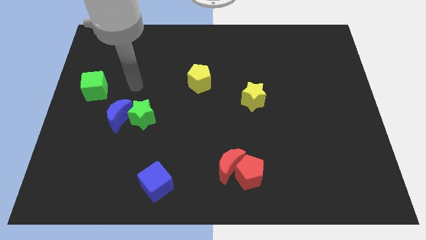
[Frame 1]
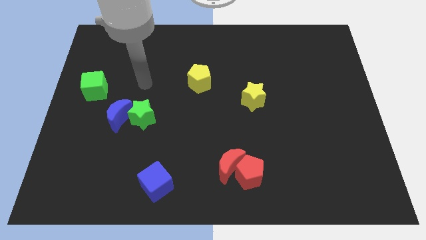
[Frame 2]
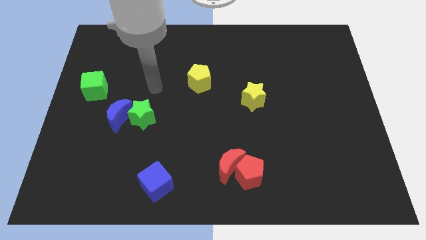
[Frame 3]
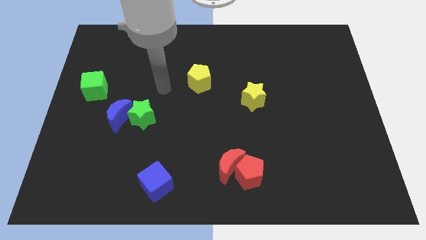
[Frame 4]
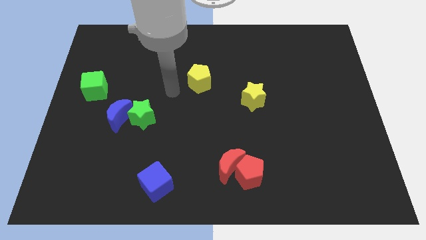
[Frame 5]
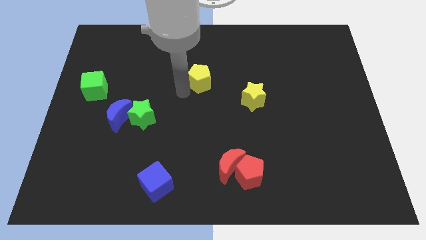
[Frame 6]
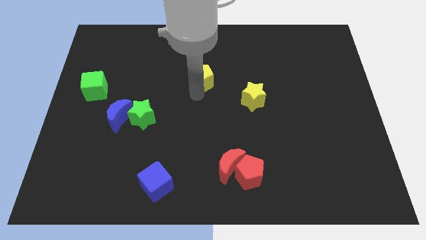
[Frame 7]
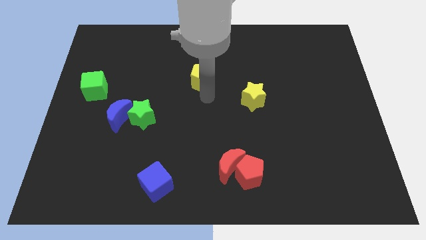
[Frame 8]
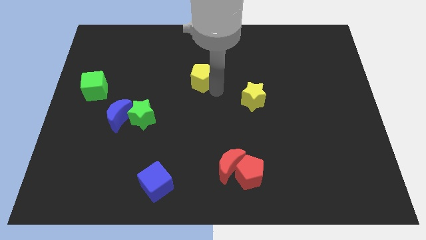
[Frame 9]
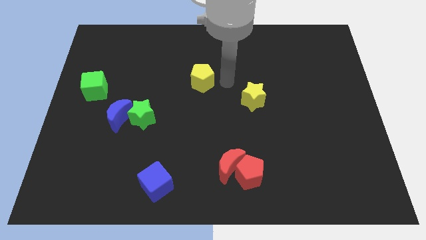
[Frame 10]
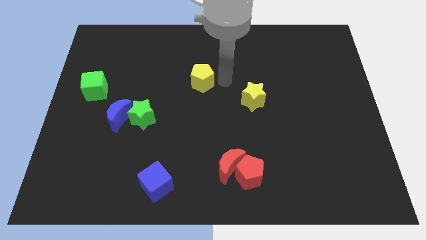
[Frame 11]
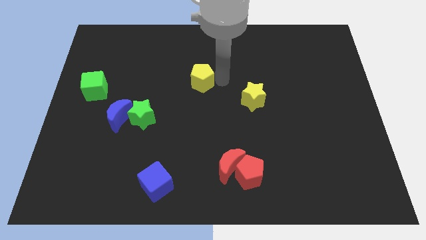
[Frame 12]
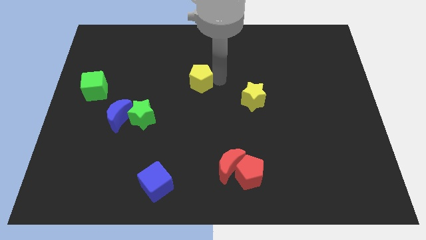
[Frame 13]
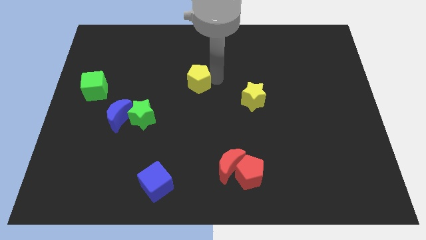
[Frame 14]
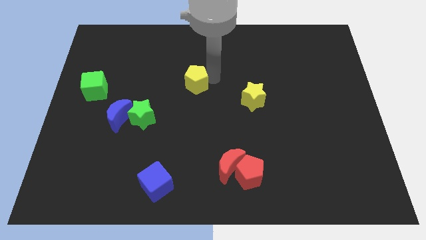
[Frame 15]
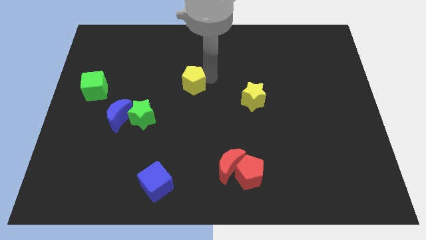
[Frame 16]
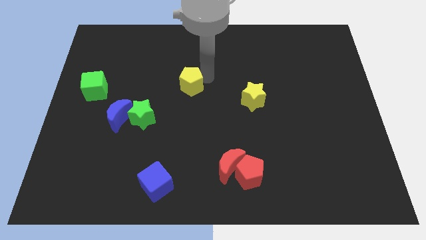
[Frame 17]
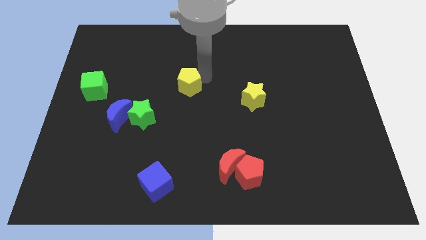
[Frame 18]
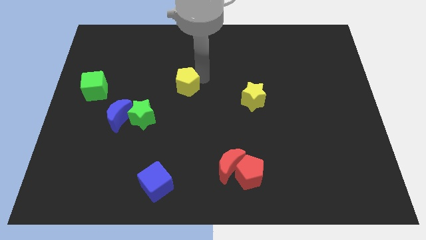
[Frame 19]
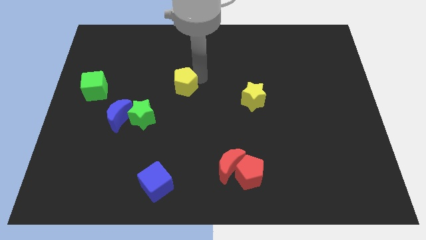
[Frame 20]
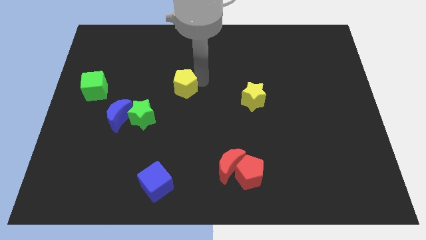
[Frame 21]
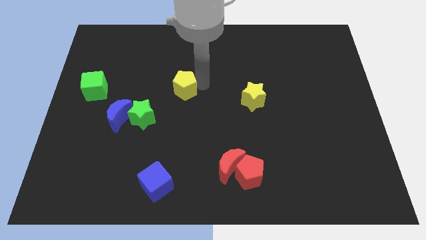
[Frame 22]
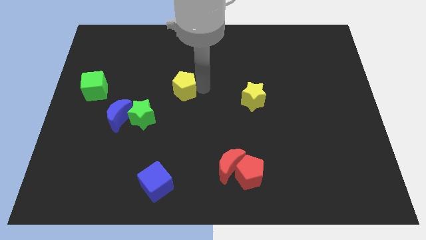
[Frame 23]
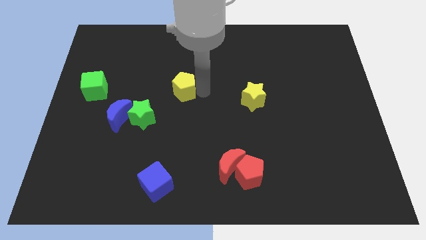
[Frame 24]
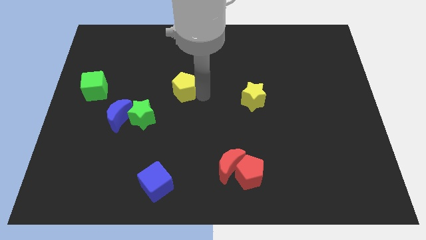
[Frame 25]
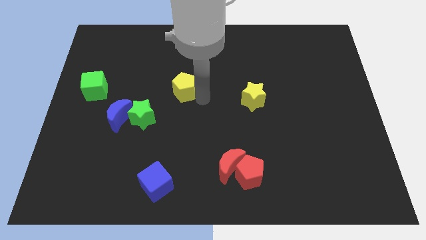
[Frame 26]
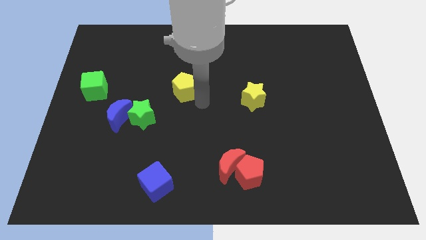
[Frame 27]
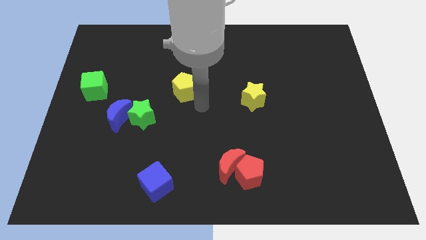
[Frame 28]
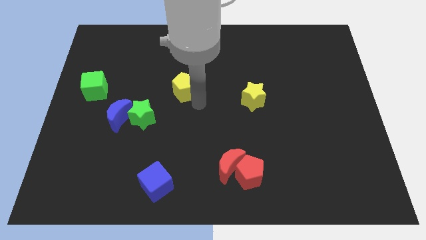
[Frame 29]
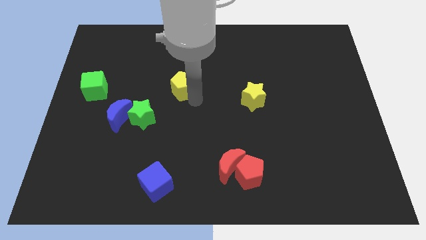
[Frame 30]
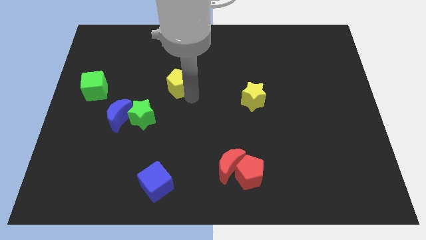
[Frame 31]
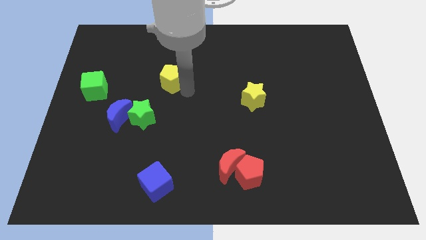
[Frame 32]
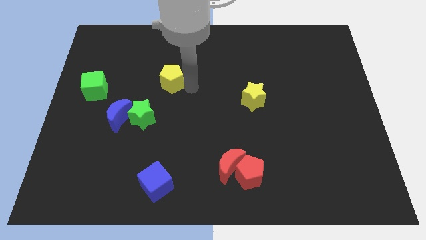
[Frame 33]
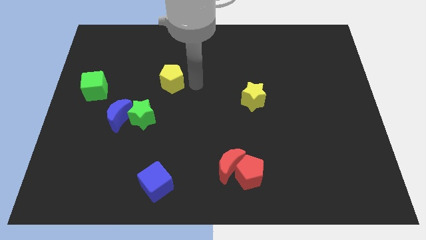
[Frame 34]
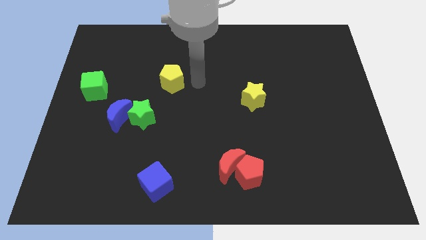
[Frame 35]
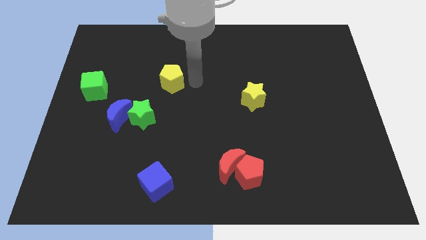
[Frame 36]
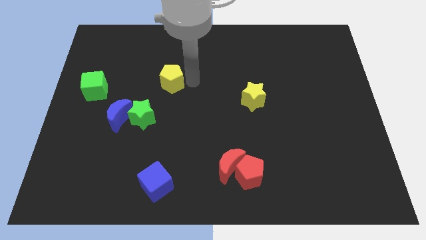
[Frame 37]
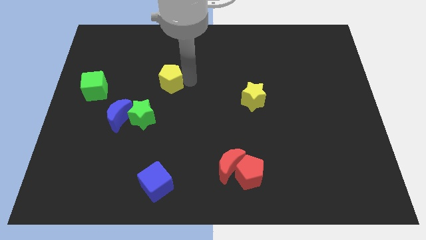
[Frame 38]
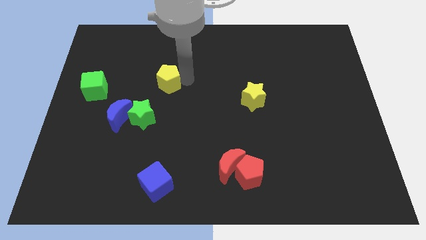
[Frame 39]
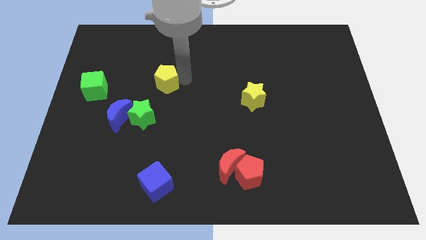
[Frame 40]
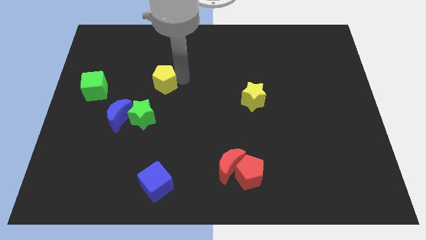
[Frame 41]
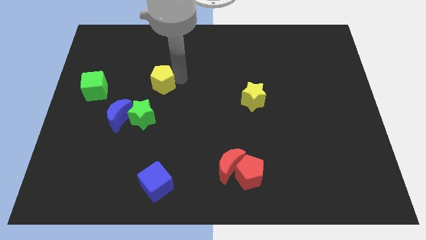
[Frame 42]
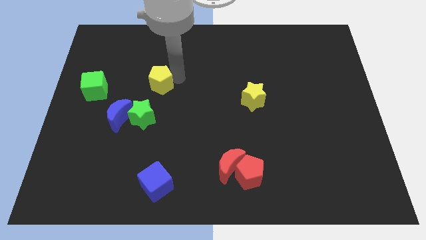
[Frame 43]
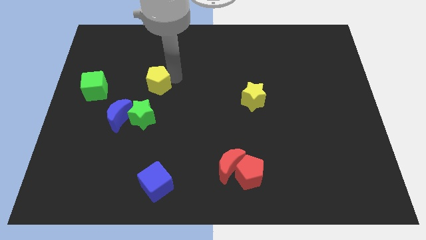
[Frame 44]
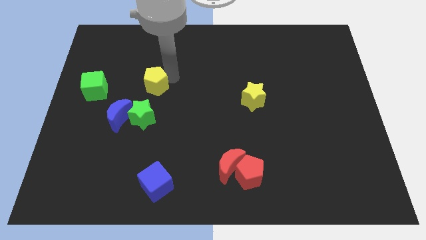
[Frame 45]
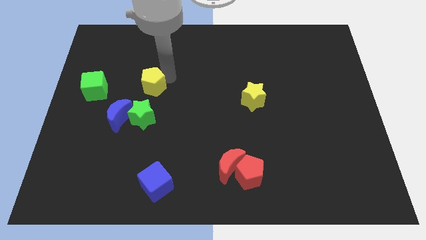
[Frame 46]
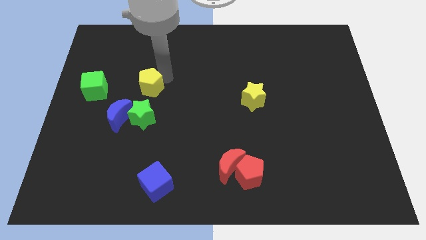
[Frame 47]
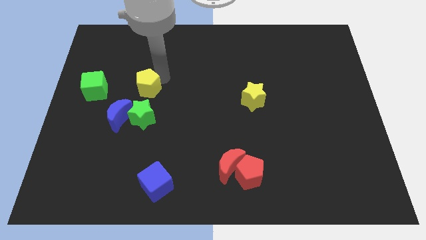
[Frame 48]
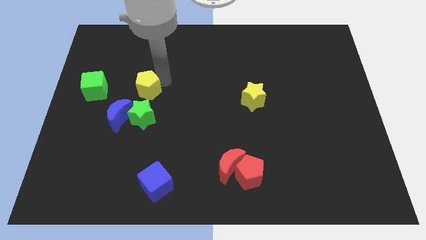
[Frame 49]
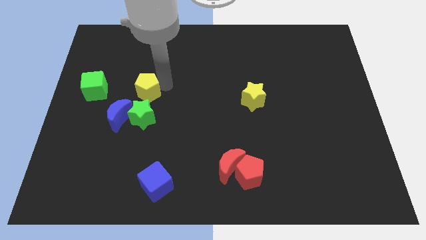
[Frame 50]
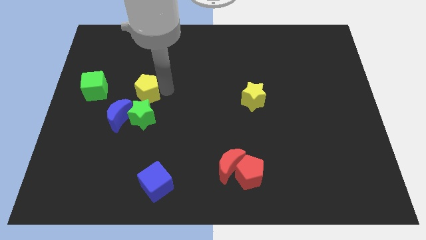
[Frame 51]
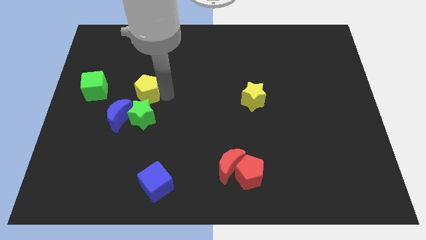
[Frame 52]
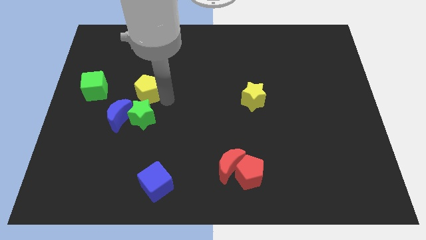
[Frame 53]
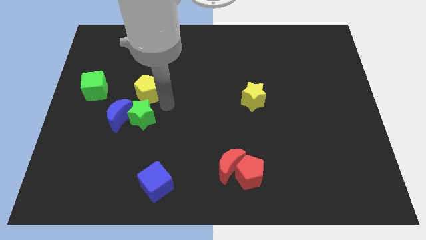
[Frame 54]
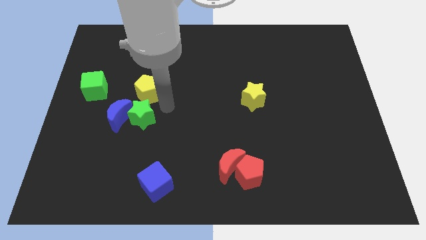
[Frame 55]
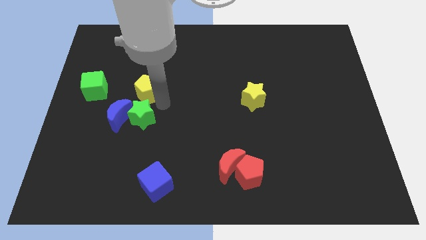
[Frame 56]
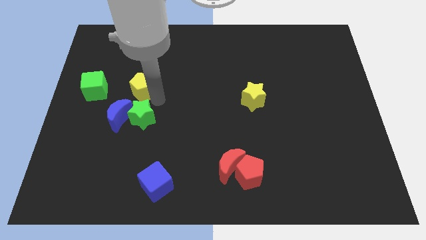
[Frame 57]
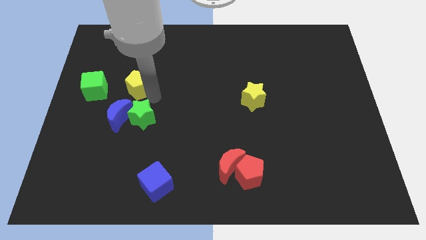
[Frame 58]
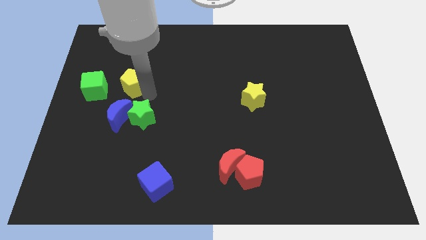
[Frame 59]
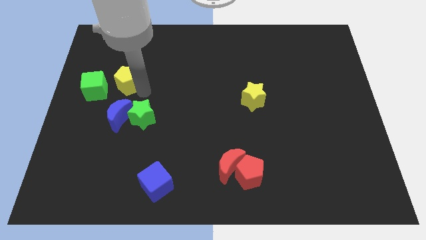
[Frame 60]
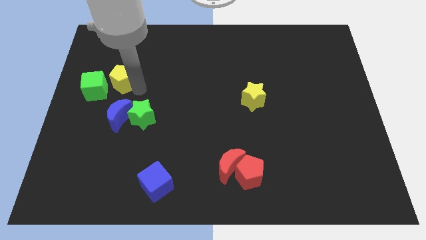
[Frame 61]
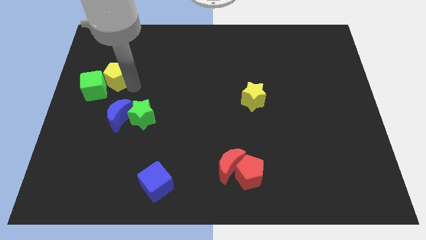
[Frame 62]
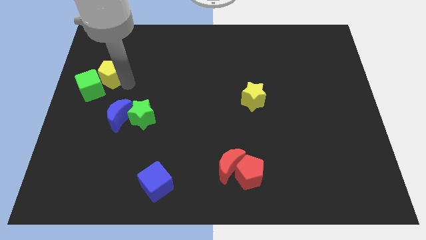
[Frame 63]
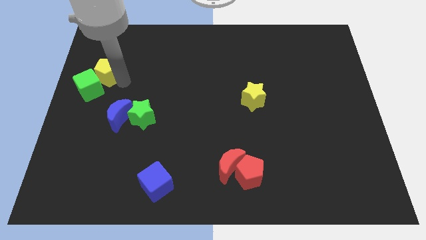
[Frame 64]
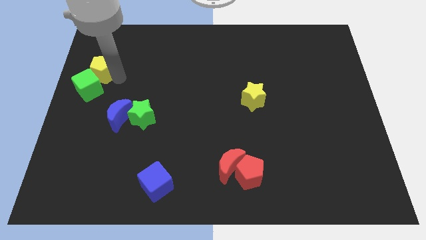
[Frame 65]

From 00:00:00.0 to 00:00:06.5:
push the yellow pentagon to the center left
